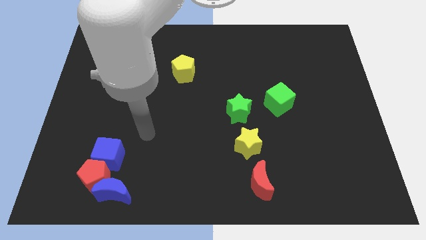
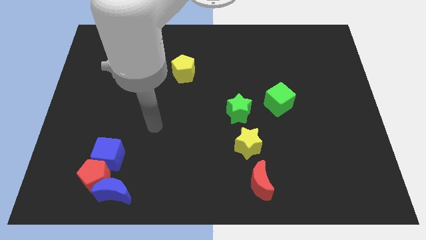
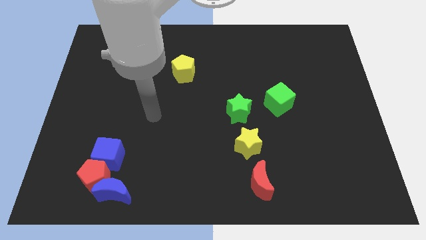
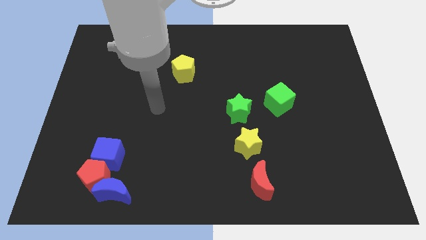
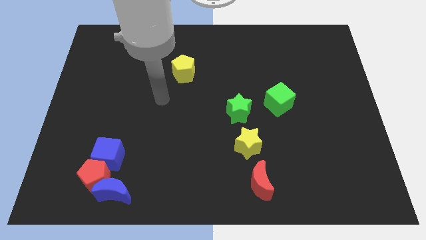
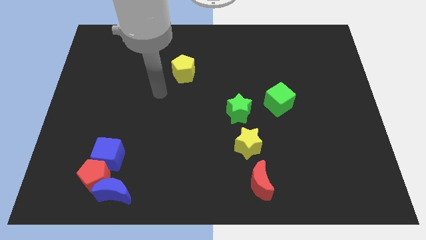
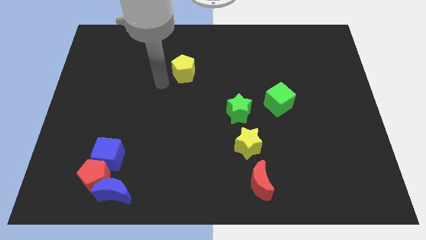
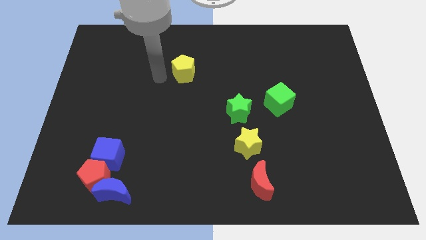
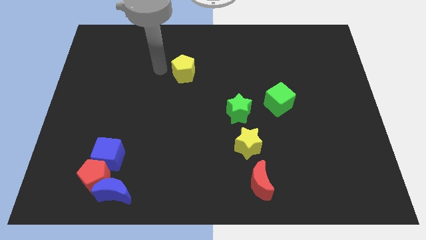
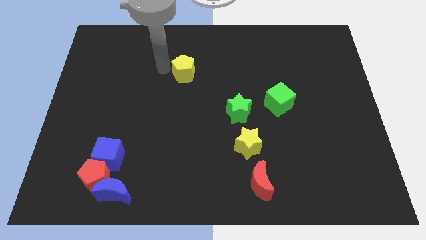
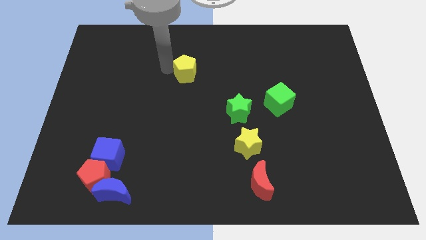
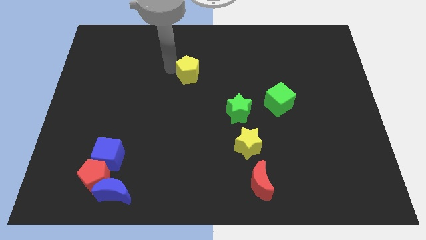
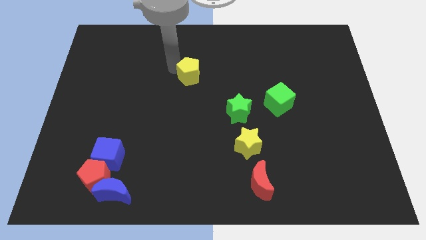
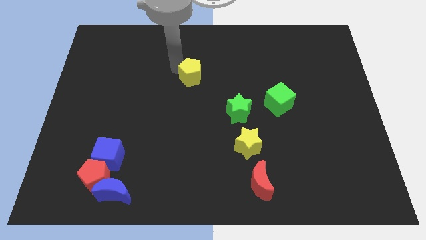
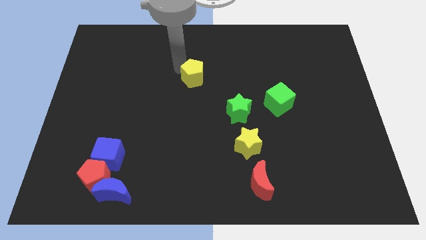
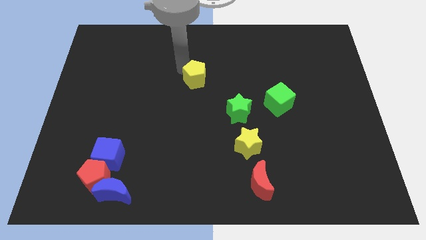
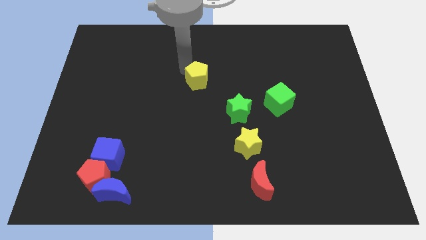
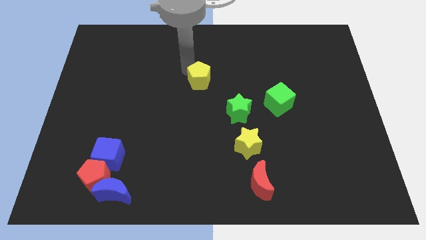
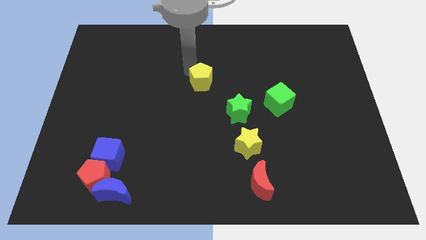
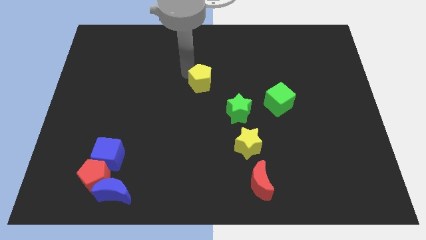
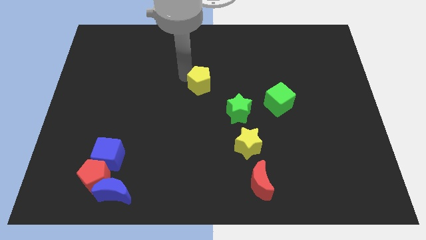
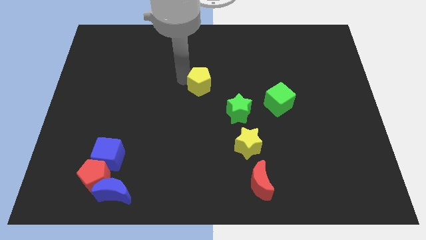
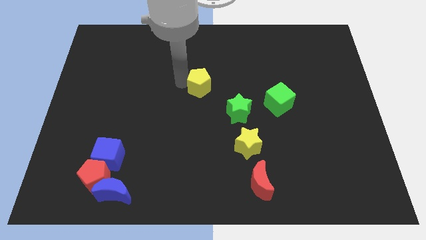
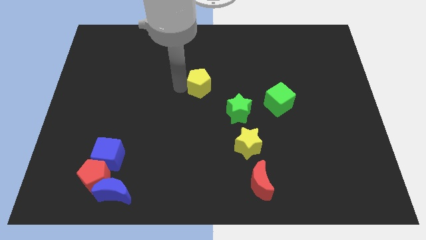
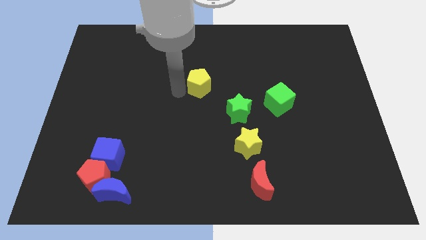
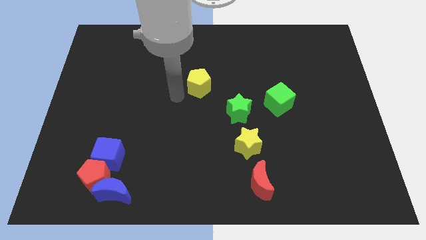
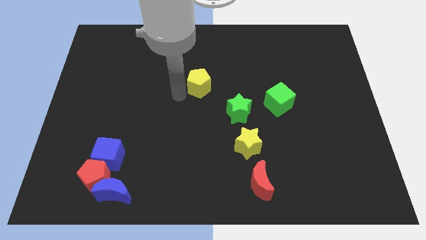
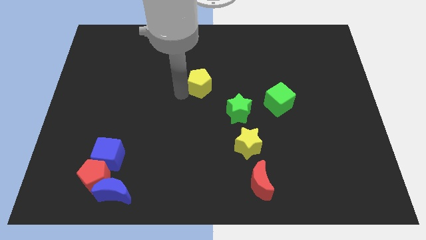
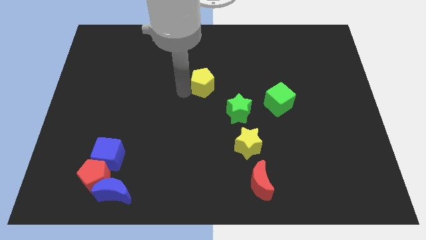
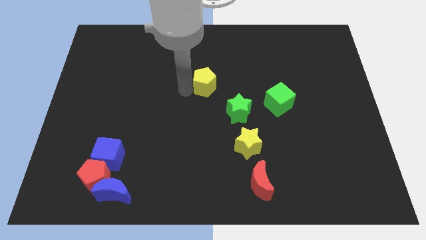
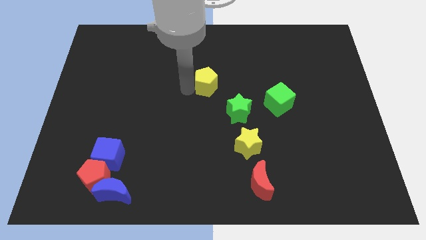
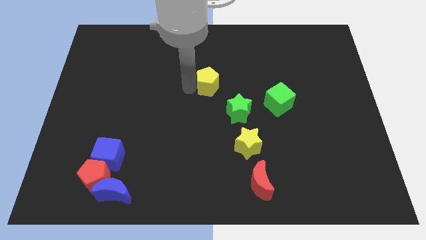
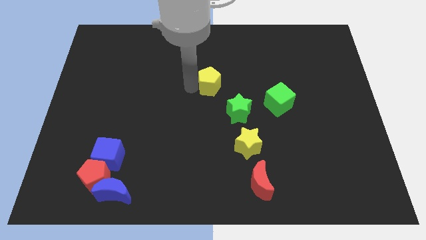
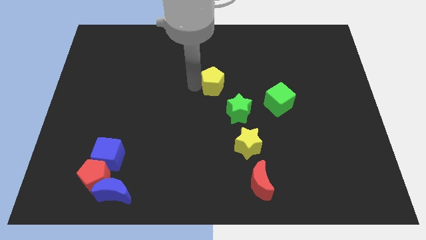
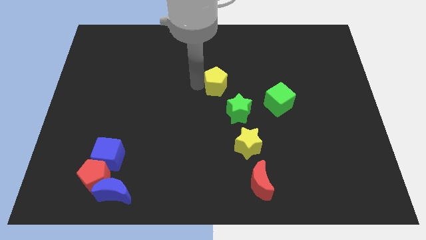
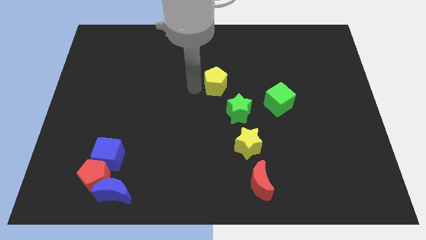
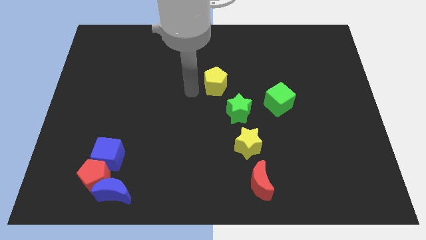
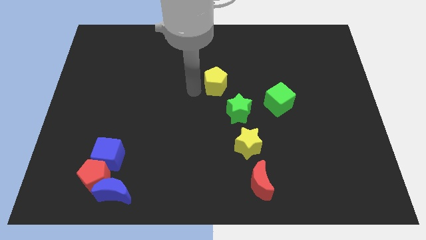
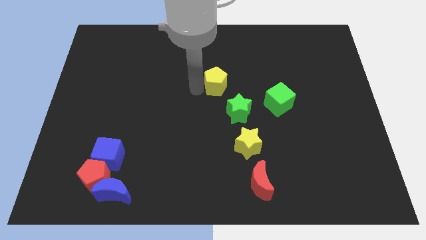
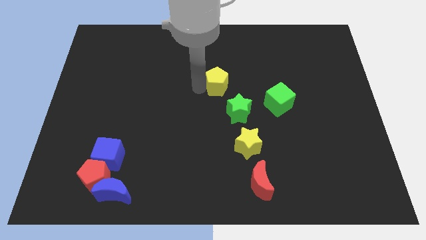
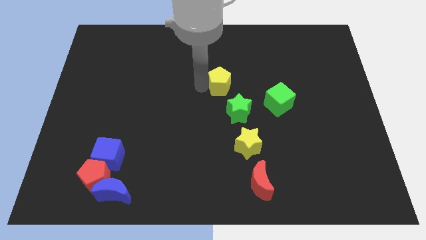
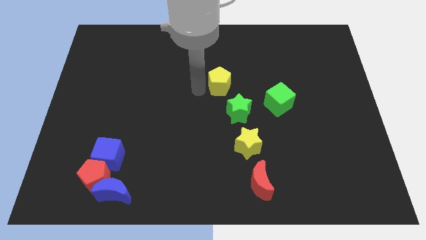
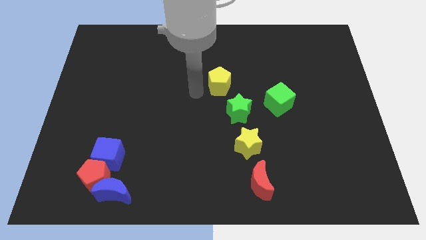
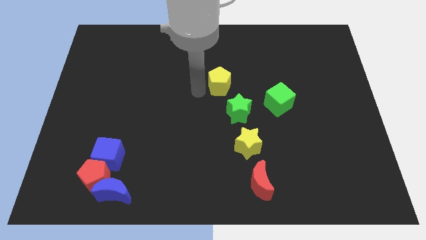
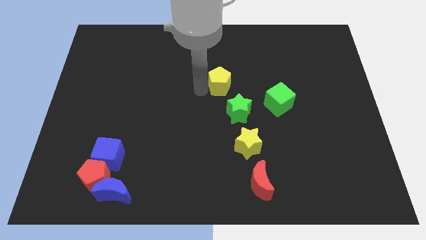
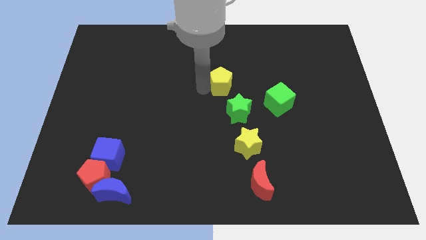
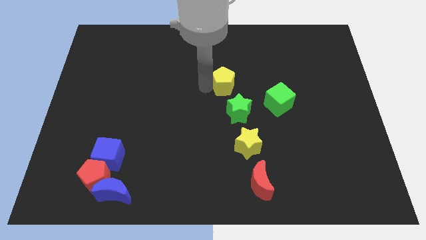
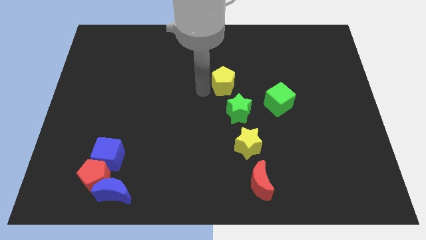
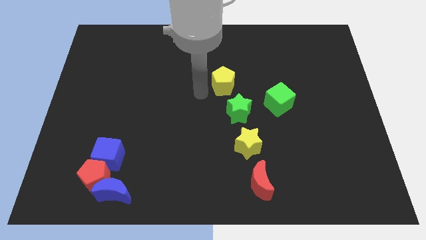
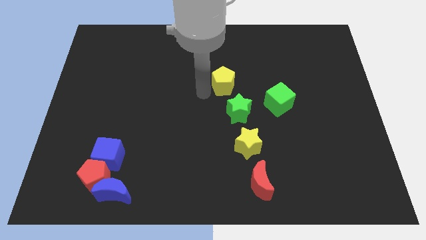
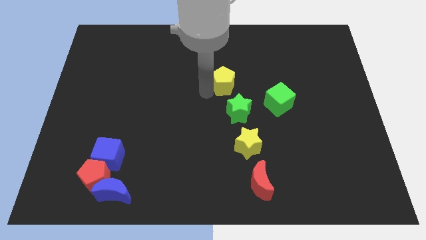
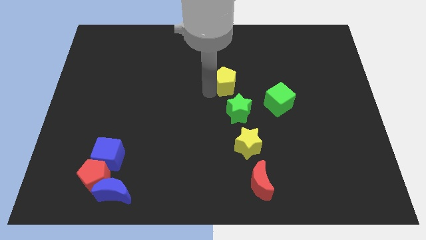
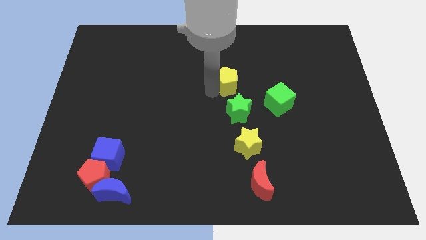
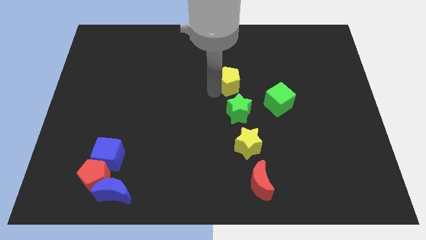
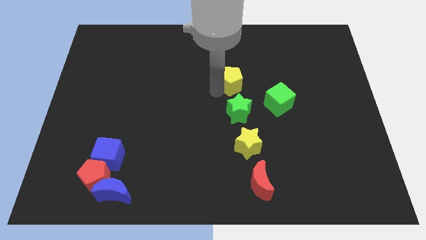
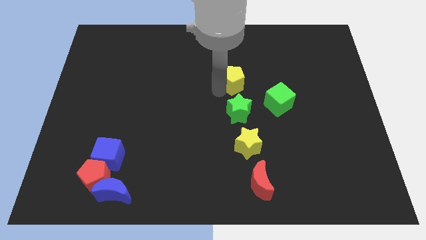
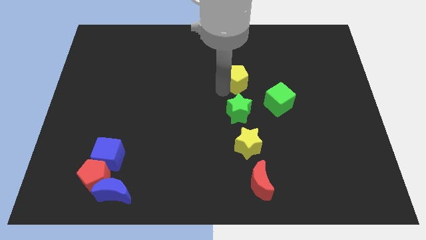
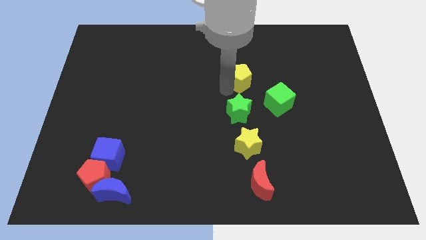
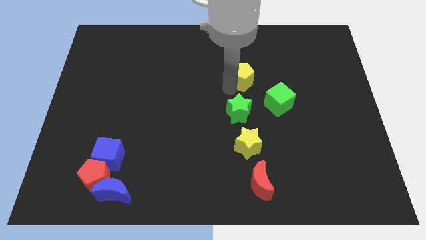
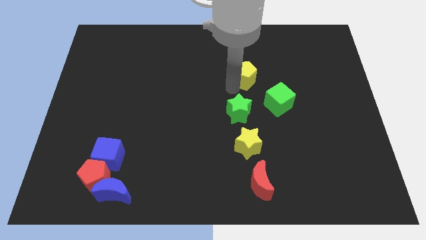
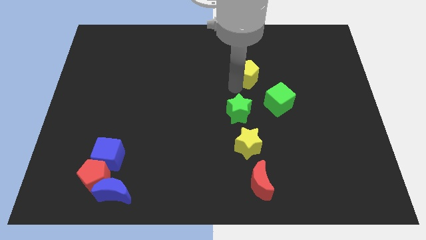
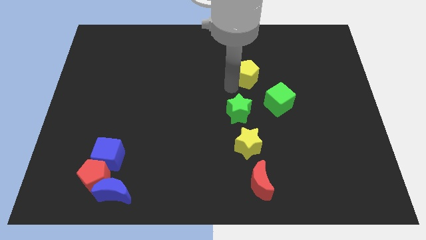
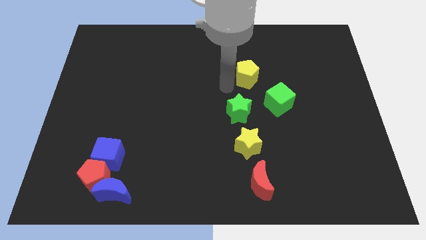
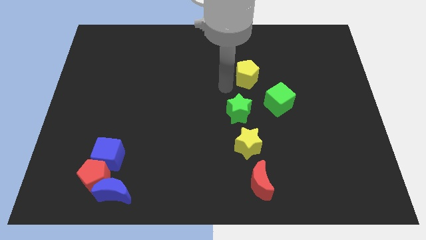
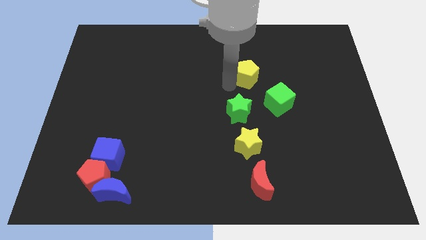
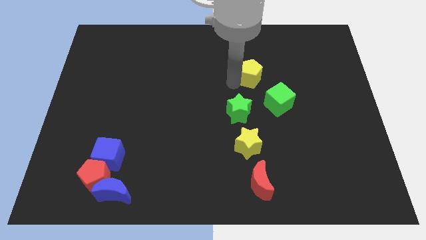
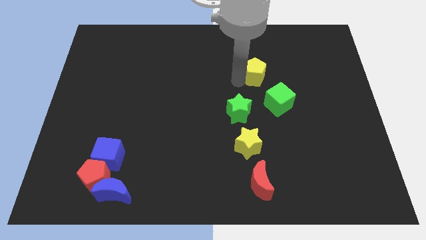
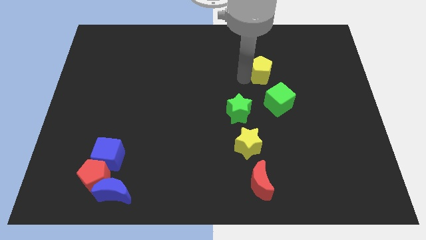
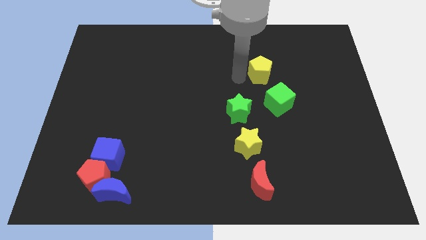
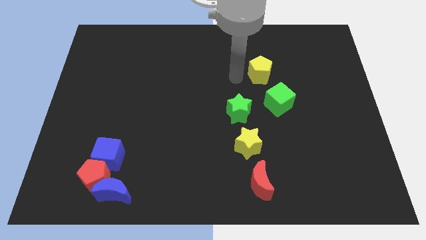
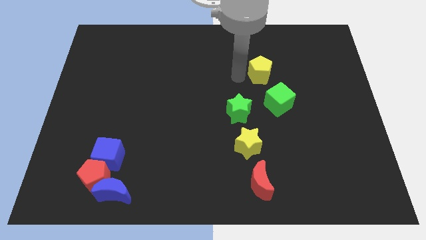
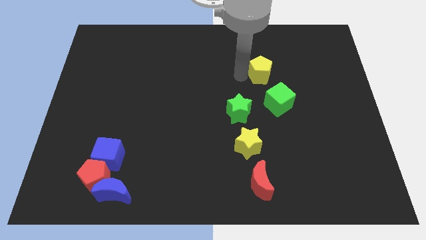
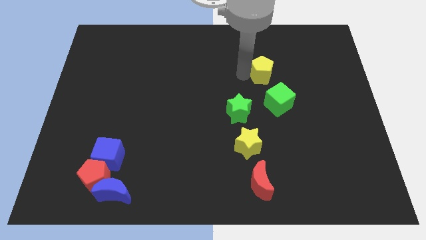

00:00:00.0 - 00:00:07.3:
move the yellow pentagon right

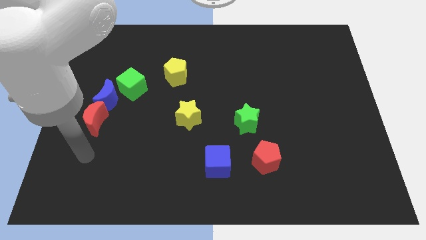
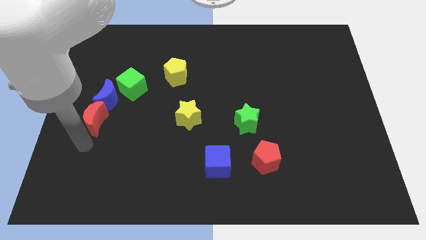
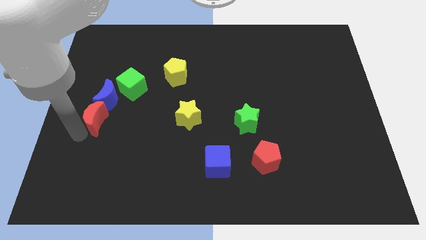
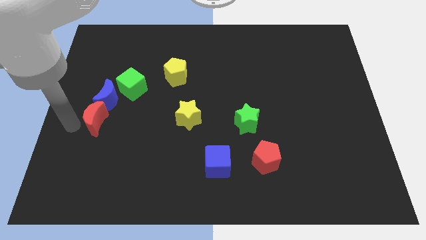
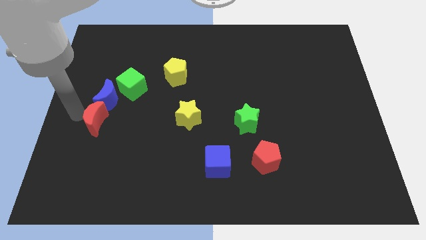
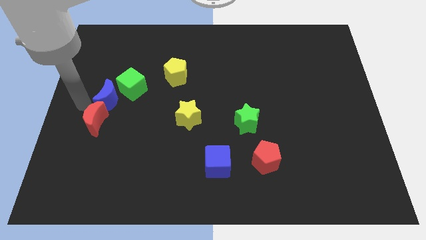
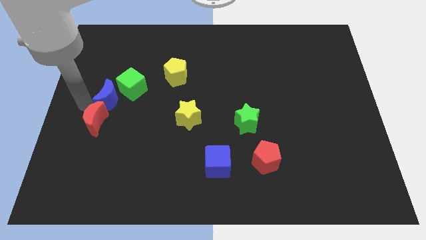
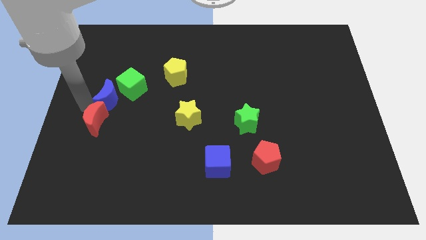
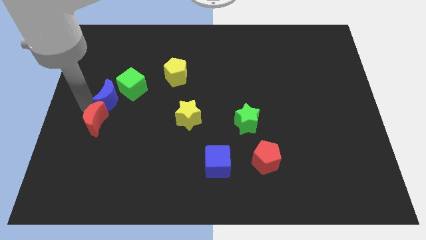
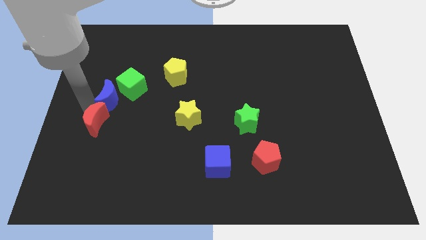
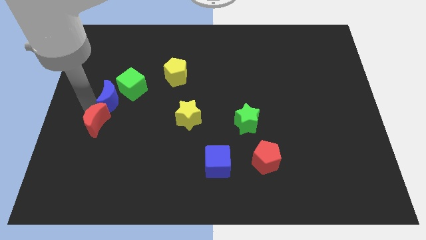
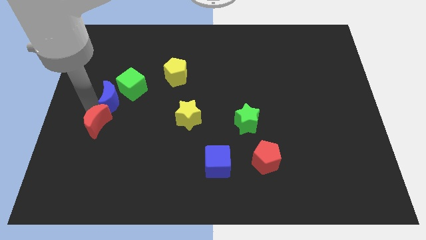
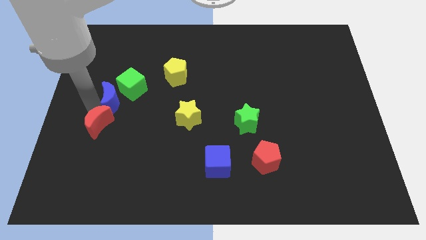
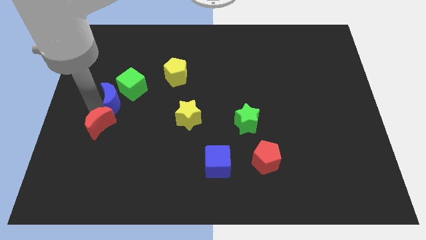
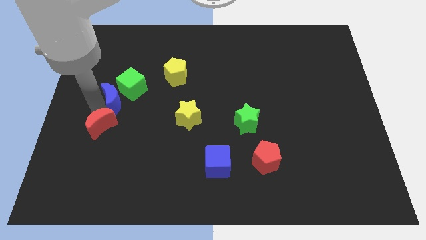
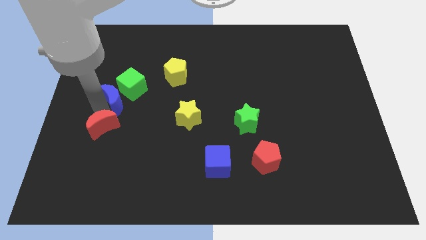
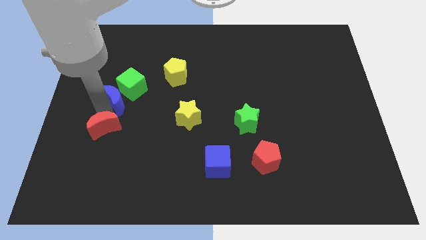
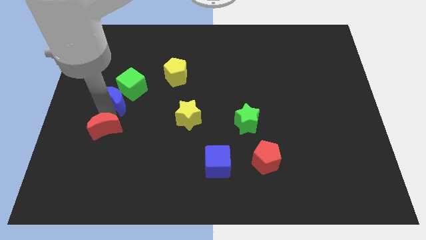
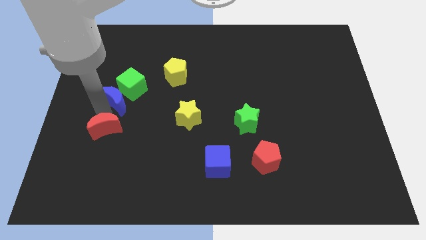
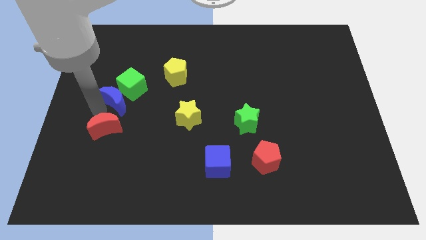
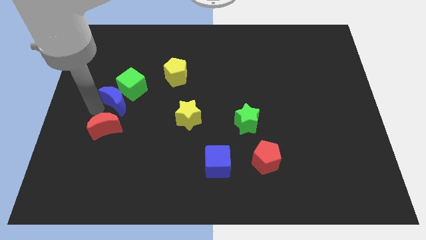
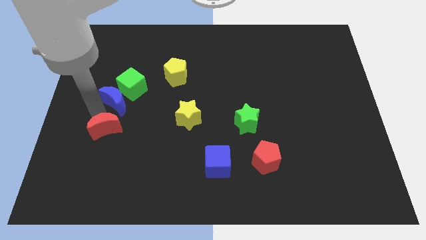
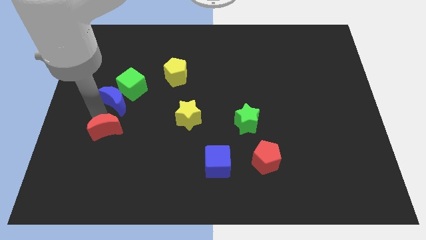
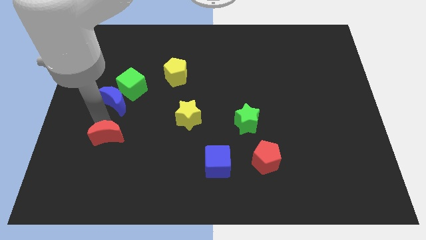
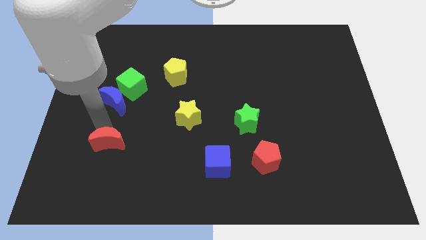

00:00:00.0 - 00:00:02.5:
slightly move the red moon down and to the right
